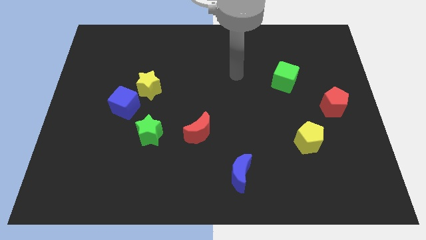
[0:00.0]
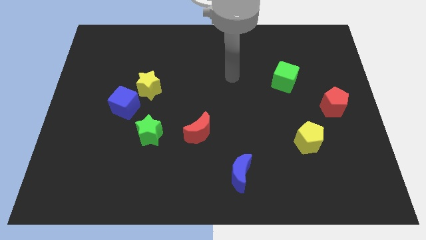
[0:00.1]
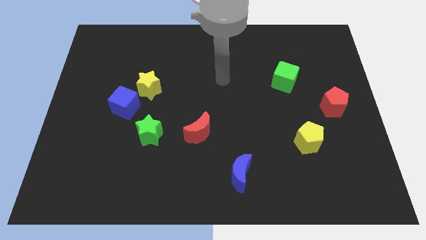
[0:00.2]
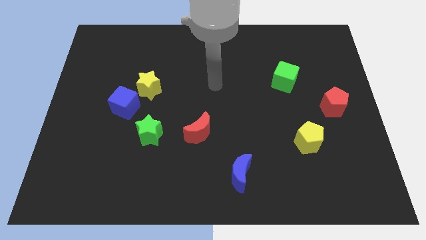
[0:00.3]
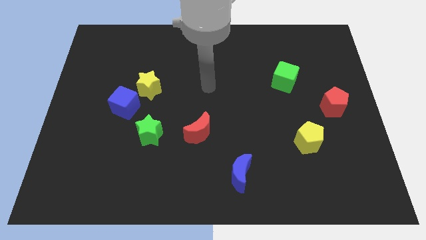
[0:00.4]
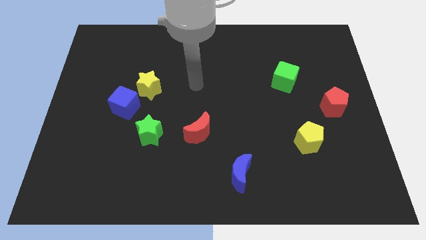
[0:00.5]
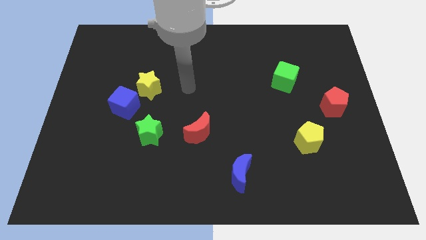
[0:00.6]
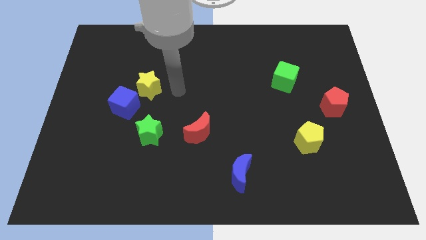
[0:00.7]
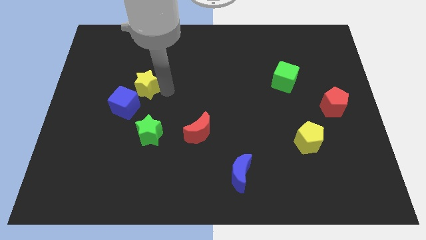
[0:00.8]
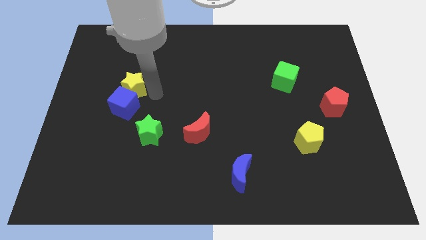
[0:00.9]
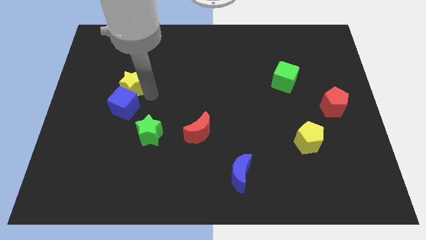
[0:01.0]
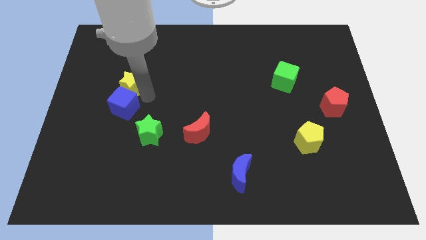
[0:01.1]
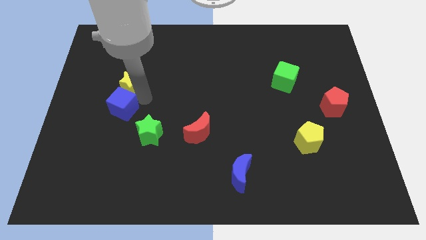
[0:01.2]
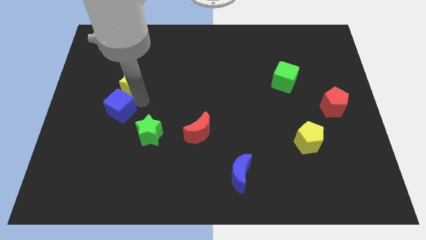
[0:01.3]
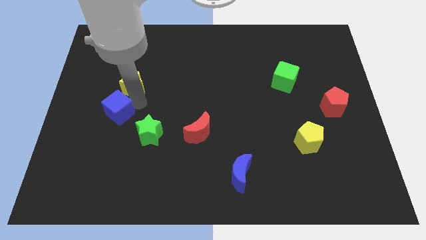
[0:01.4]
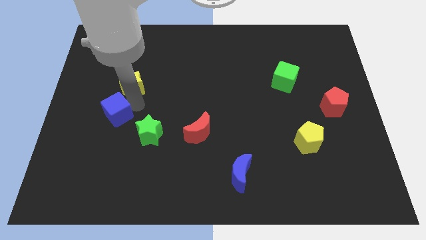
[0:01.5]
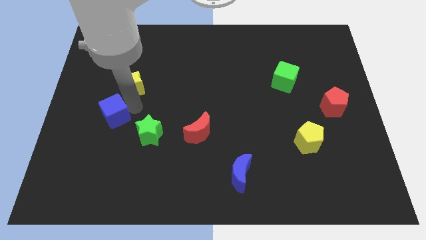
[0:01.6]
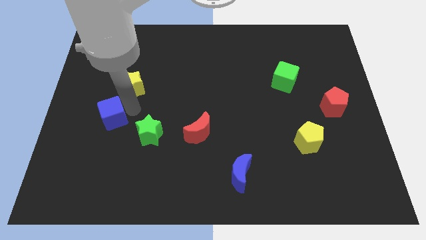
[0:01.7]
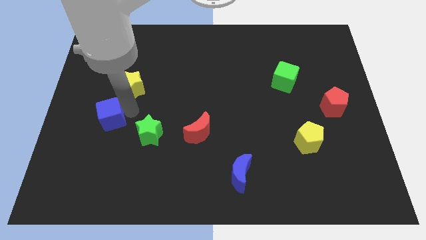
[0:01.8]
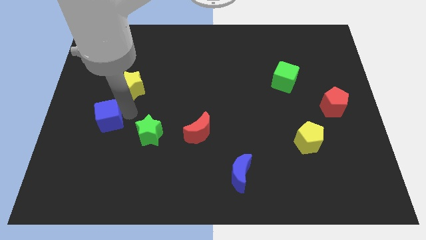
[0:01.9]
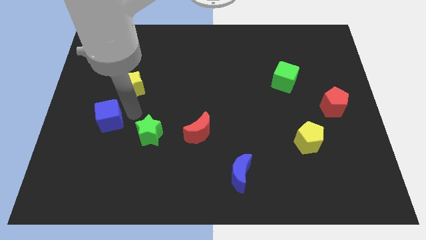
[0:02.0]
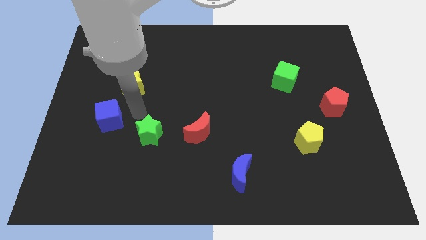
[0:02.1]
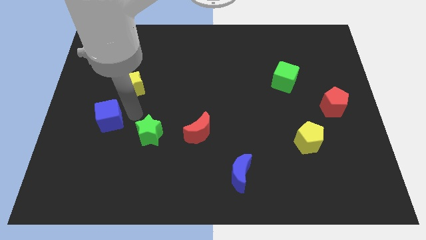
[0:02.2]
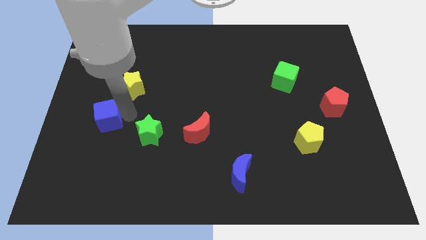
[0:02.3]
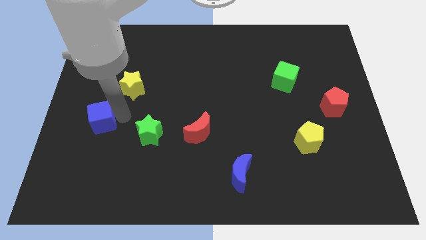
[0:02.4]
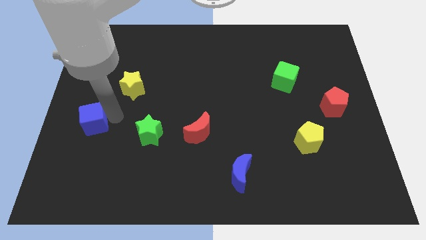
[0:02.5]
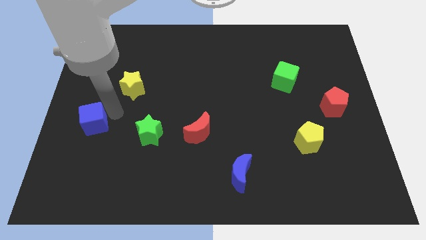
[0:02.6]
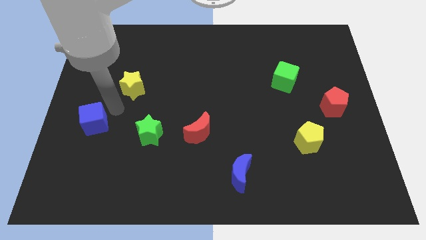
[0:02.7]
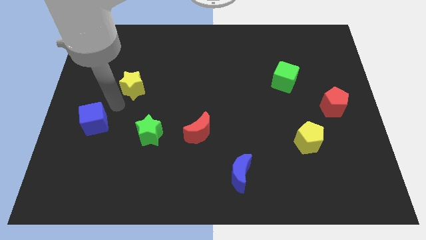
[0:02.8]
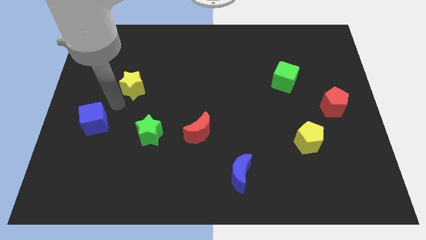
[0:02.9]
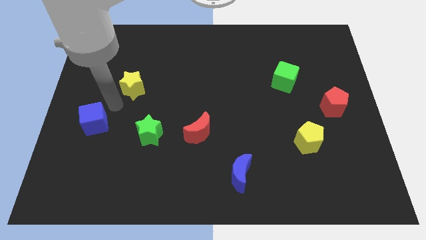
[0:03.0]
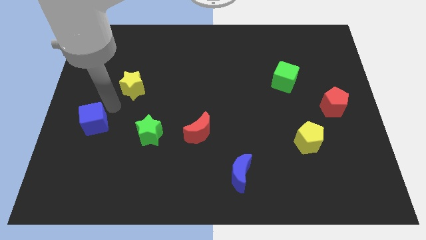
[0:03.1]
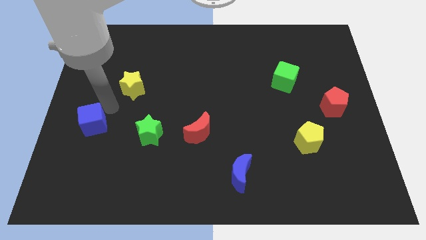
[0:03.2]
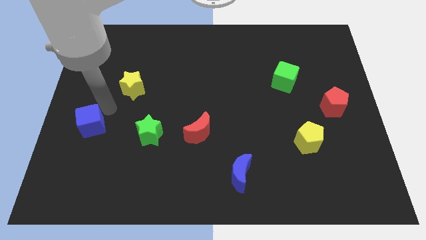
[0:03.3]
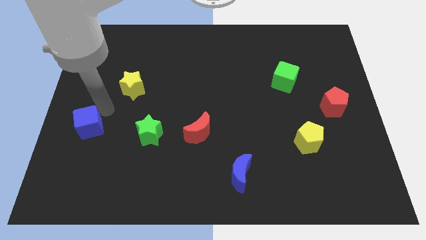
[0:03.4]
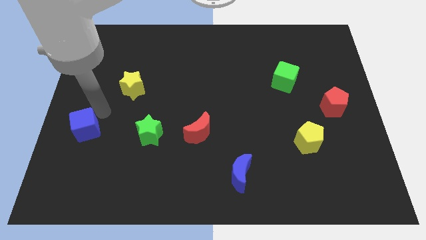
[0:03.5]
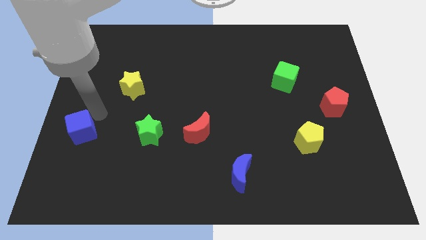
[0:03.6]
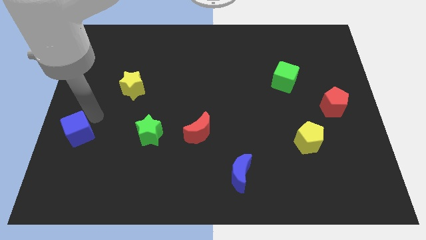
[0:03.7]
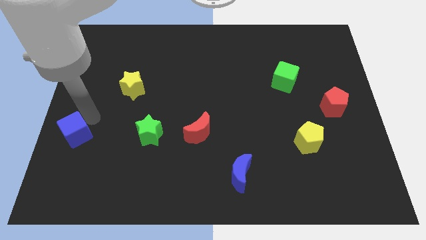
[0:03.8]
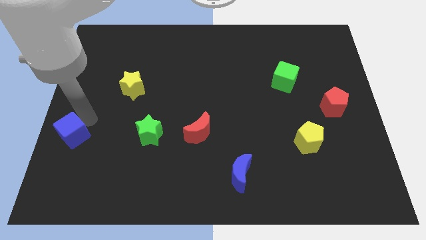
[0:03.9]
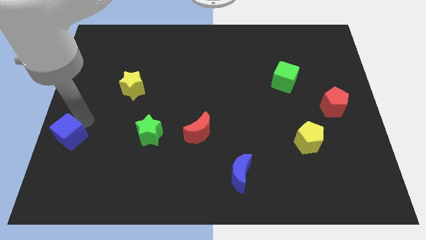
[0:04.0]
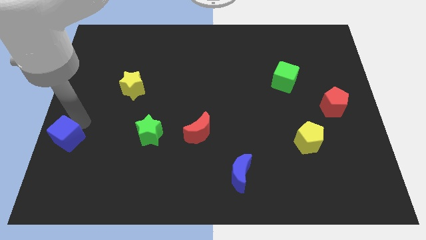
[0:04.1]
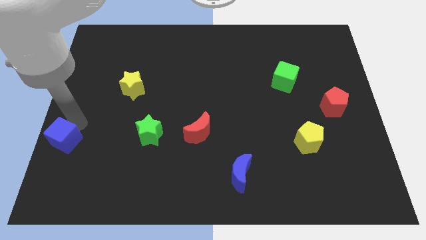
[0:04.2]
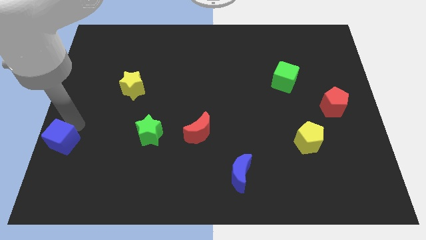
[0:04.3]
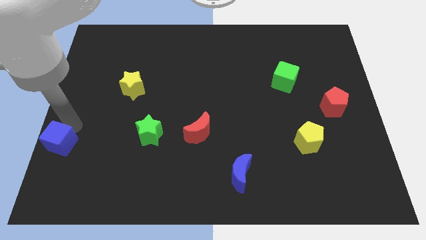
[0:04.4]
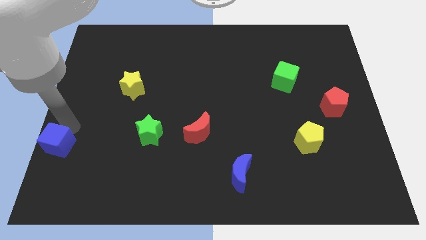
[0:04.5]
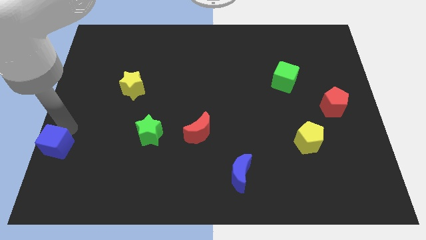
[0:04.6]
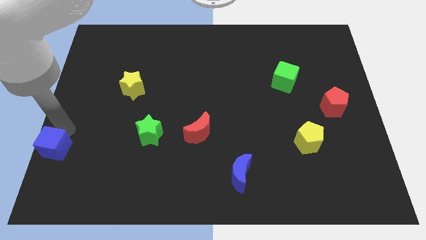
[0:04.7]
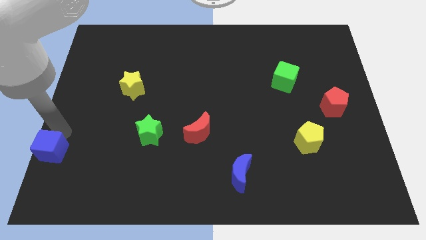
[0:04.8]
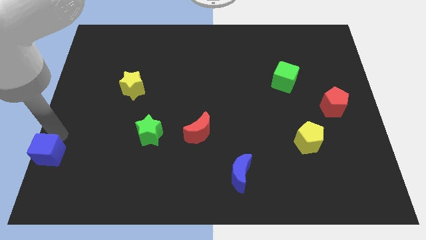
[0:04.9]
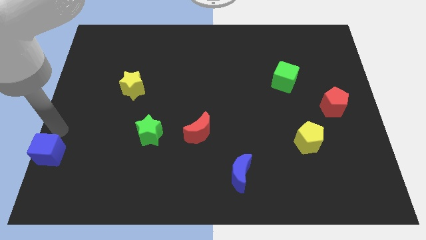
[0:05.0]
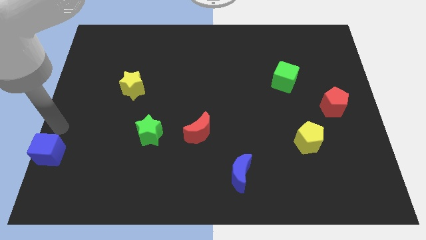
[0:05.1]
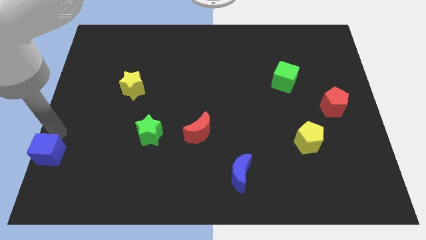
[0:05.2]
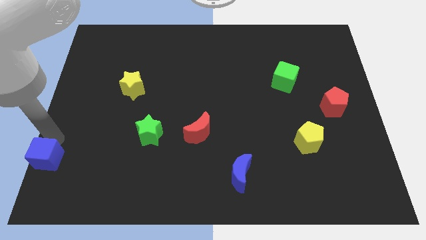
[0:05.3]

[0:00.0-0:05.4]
put the blue cube to the lower left corner

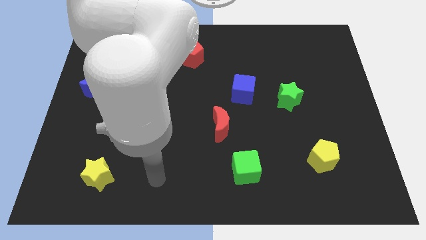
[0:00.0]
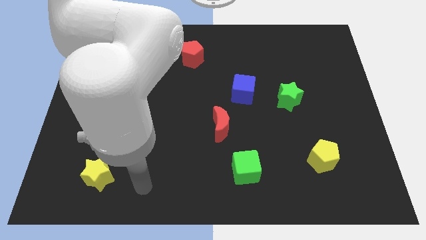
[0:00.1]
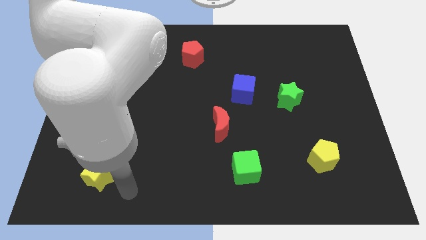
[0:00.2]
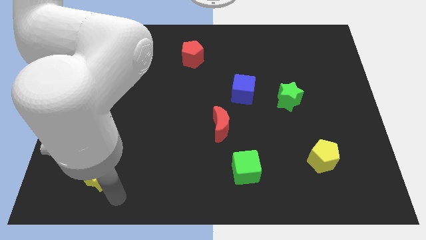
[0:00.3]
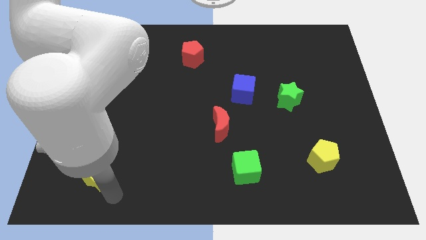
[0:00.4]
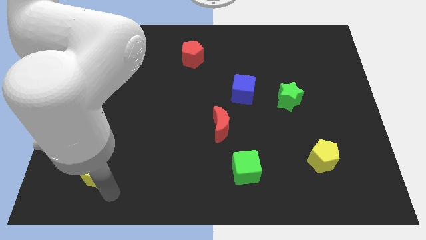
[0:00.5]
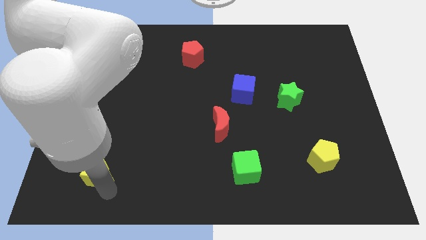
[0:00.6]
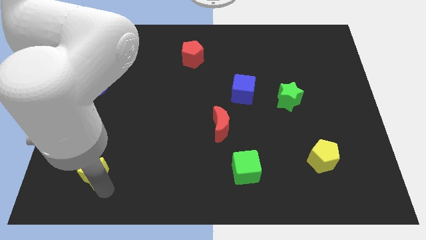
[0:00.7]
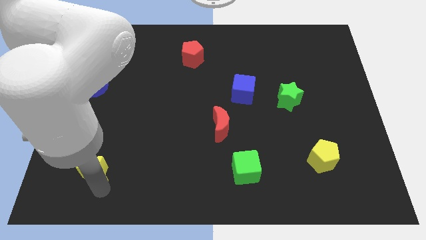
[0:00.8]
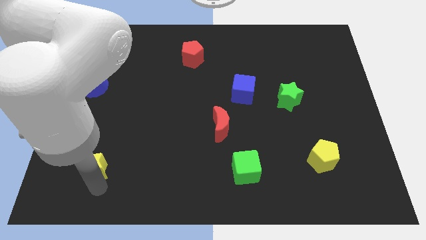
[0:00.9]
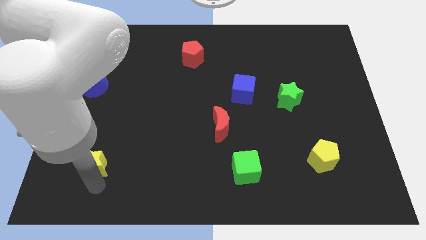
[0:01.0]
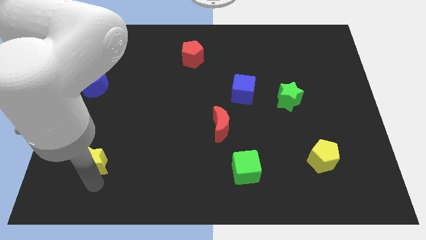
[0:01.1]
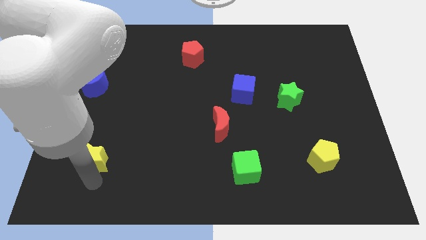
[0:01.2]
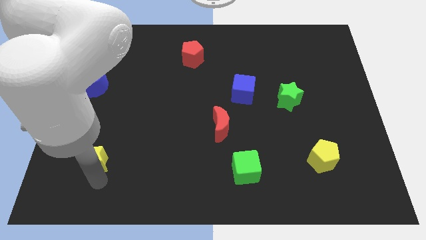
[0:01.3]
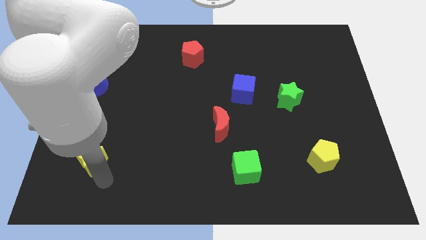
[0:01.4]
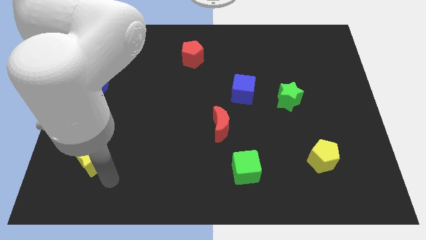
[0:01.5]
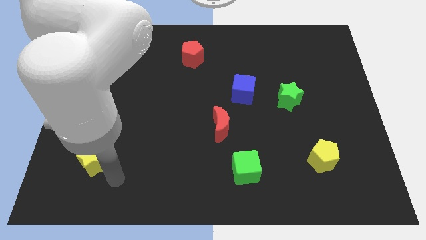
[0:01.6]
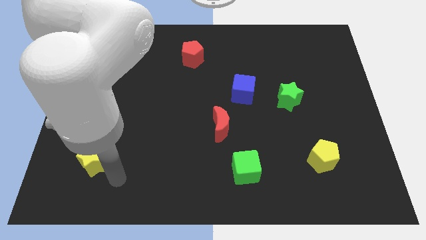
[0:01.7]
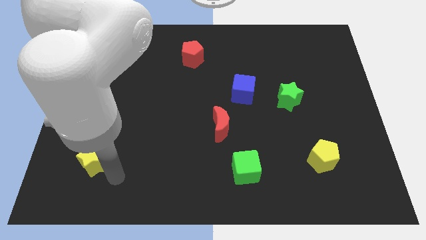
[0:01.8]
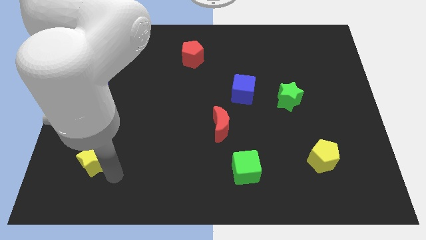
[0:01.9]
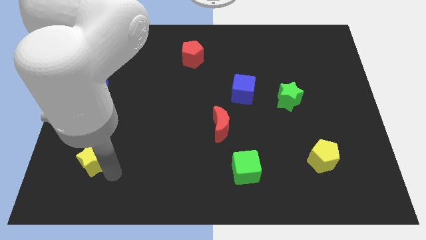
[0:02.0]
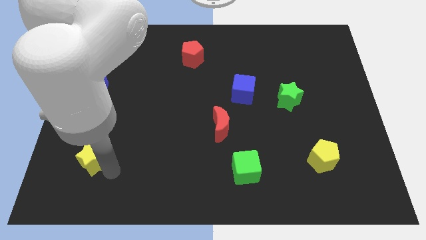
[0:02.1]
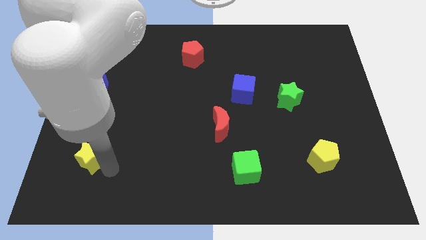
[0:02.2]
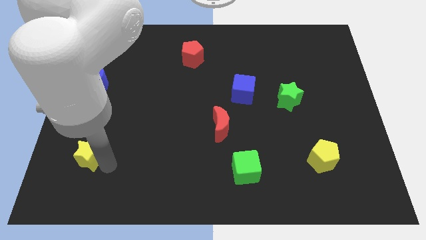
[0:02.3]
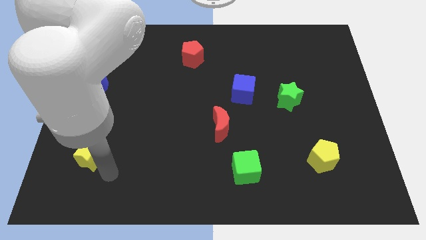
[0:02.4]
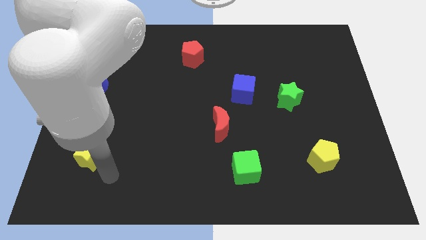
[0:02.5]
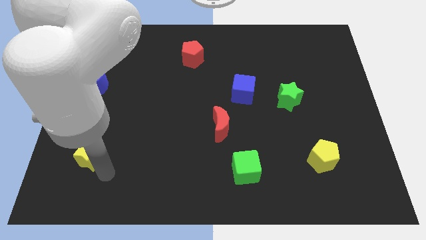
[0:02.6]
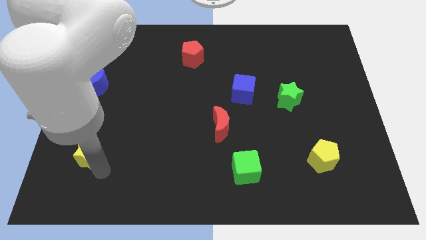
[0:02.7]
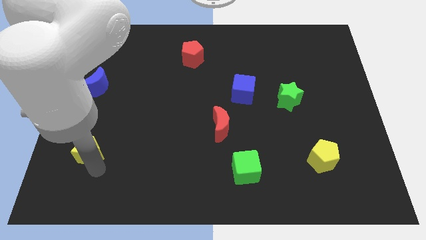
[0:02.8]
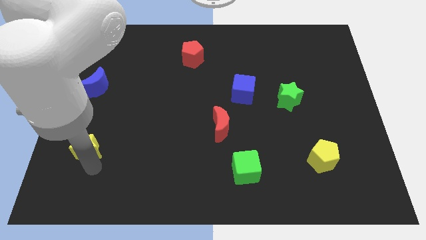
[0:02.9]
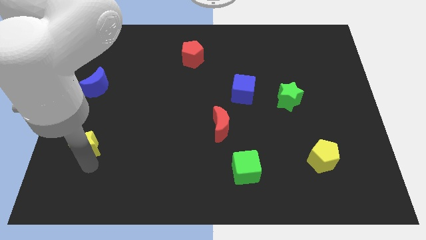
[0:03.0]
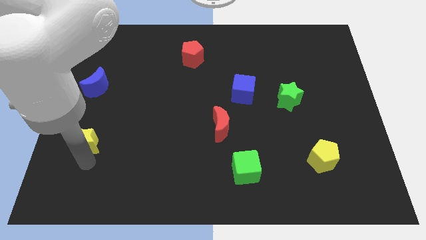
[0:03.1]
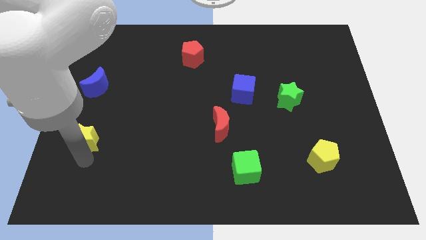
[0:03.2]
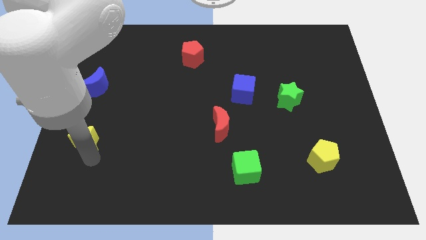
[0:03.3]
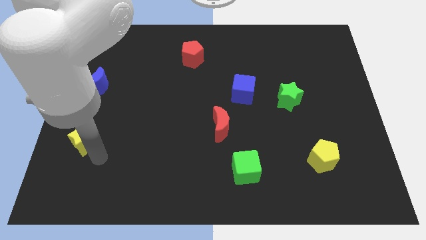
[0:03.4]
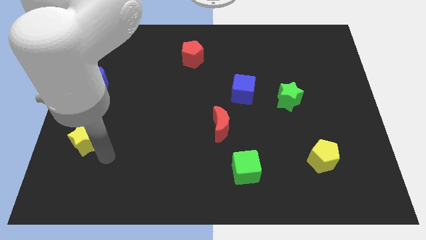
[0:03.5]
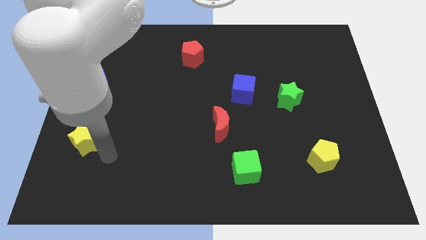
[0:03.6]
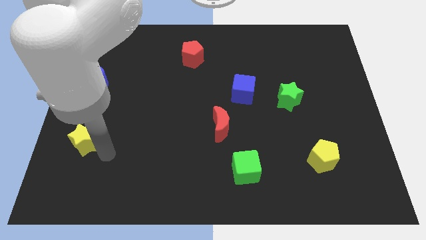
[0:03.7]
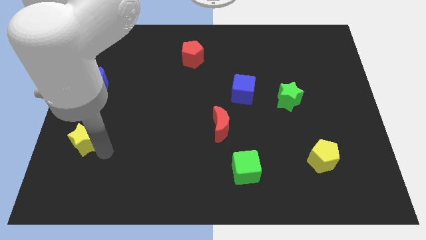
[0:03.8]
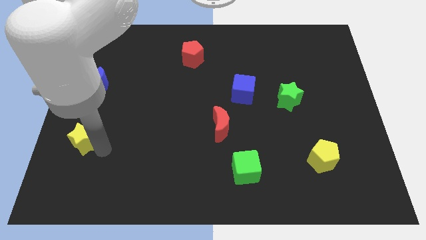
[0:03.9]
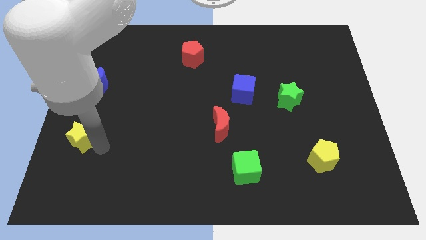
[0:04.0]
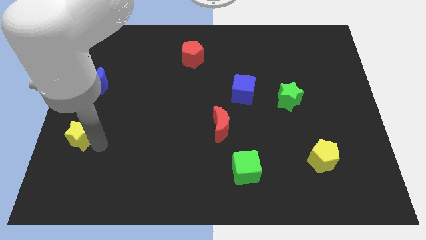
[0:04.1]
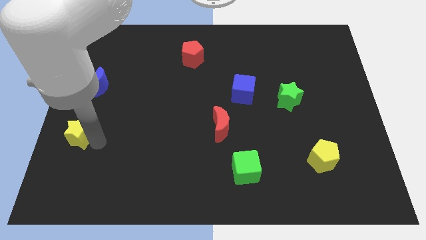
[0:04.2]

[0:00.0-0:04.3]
push the yellow star to the left side
